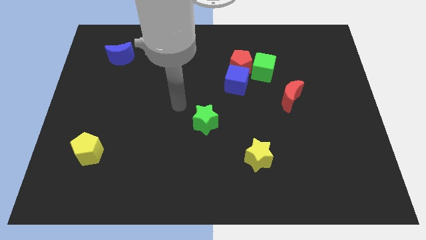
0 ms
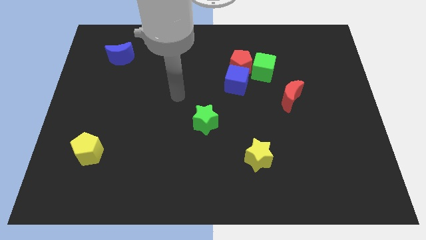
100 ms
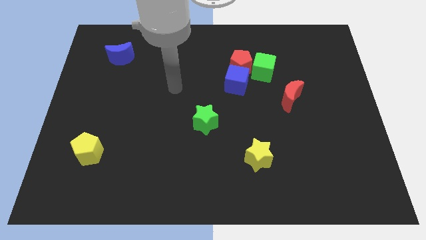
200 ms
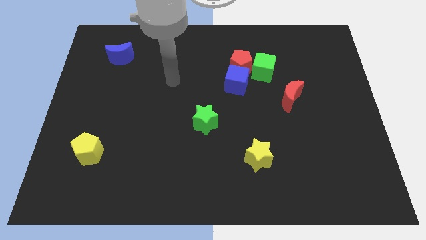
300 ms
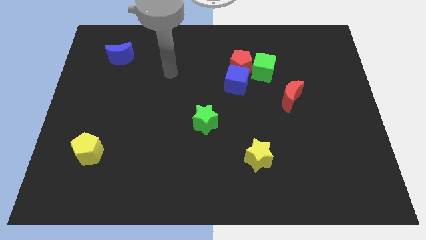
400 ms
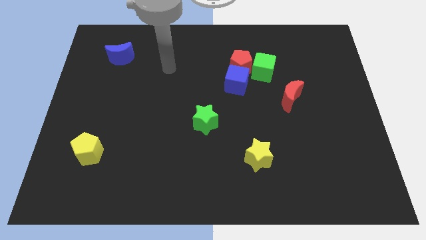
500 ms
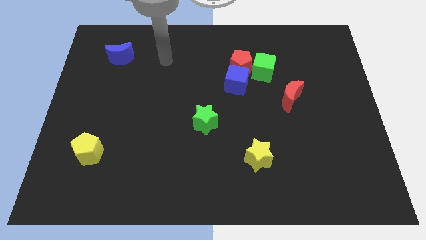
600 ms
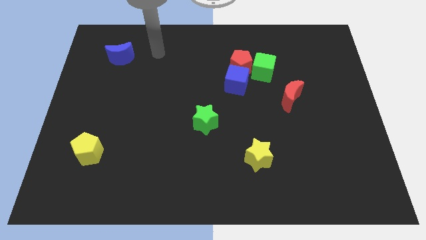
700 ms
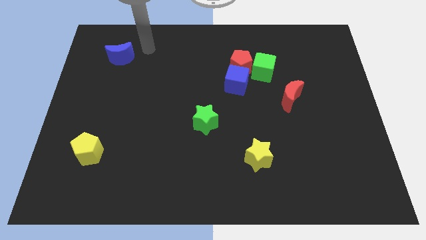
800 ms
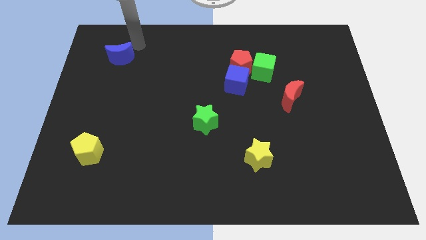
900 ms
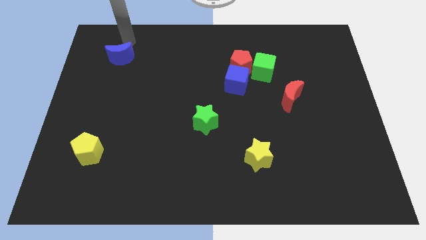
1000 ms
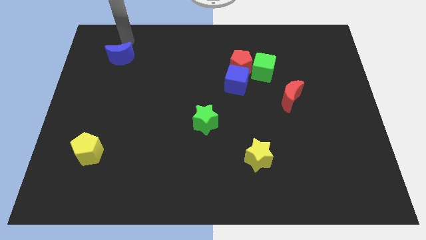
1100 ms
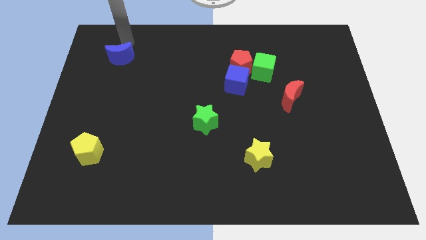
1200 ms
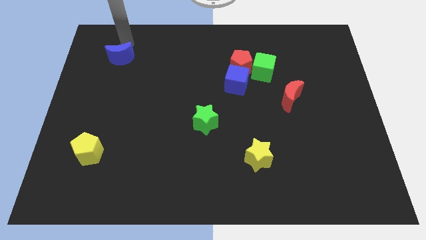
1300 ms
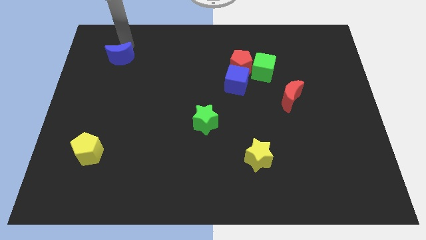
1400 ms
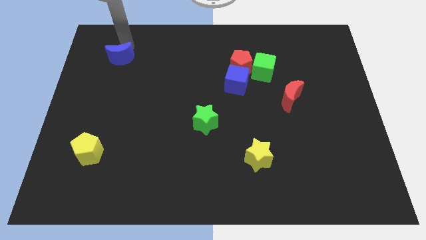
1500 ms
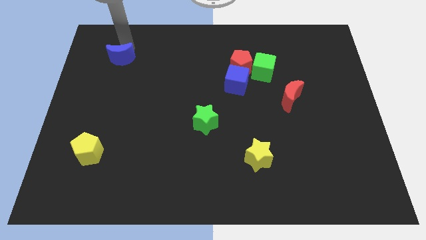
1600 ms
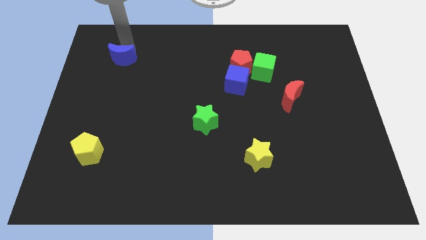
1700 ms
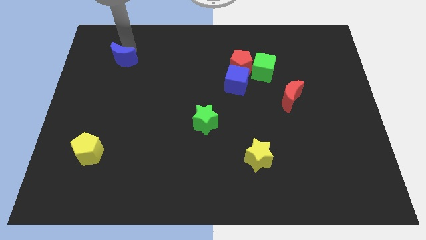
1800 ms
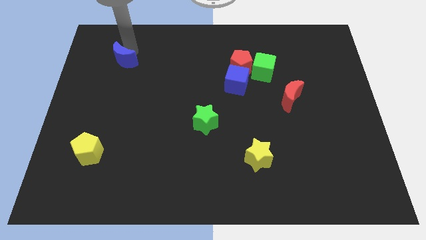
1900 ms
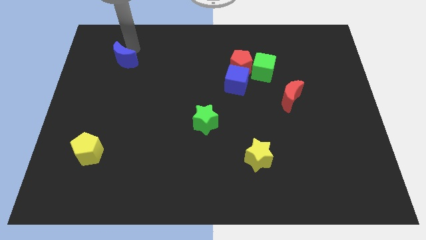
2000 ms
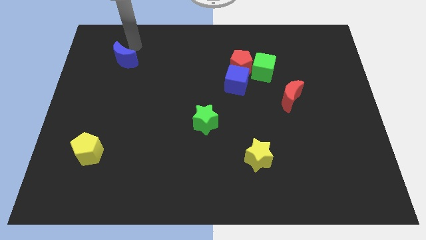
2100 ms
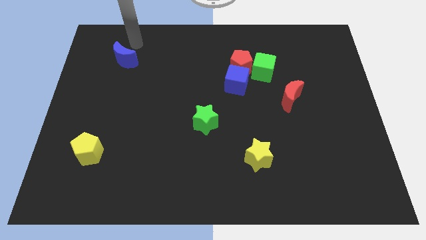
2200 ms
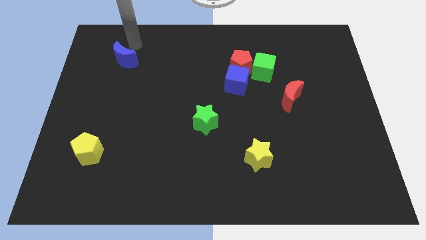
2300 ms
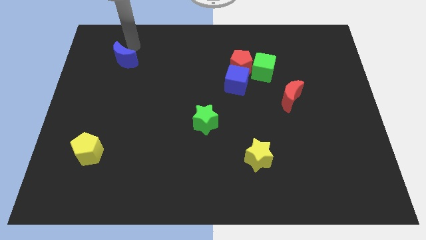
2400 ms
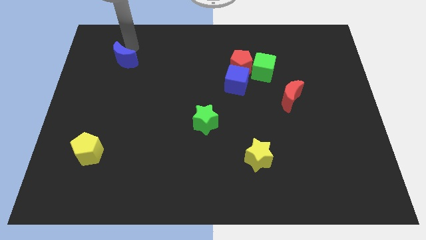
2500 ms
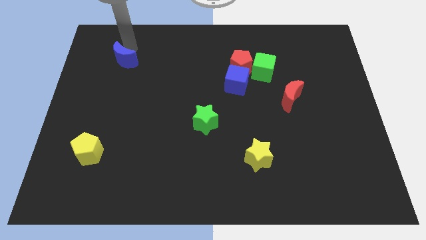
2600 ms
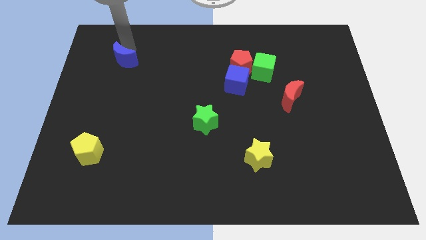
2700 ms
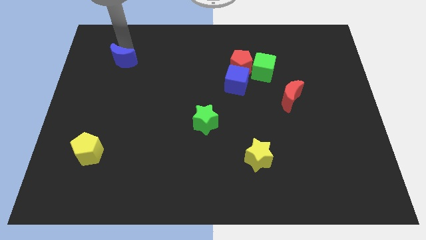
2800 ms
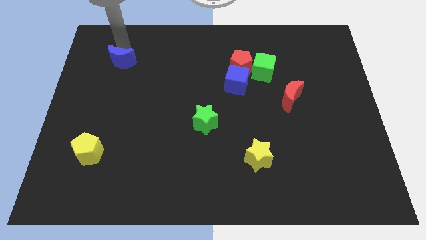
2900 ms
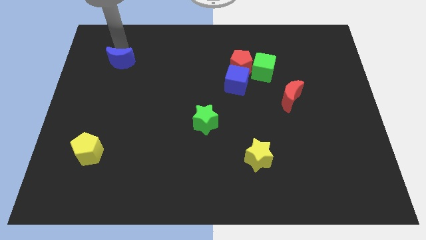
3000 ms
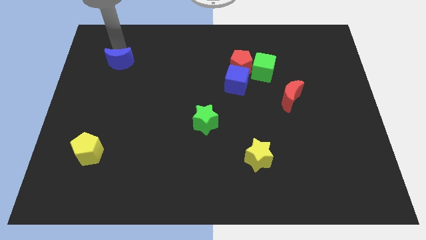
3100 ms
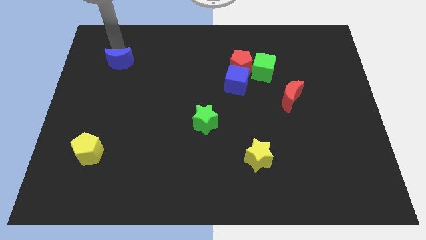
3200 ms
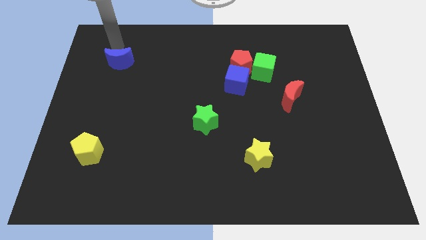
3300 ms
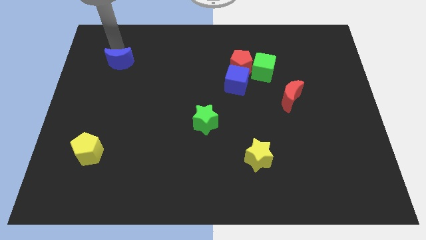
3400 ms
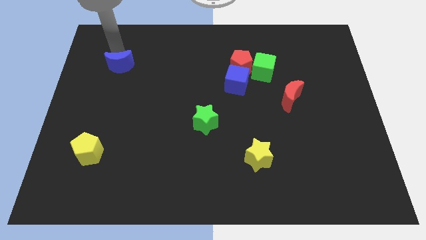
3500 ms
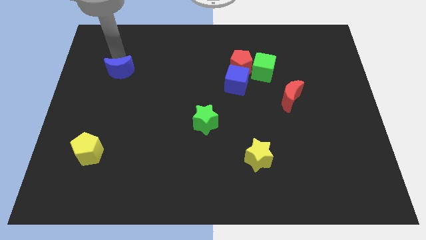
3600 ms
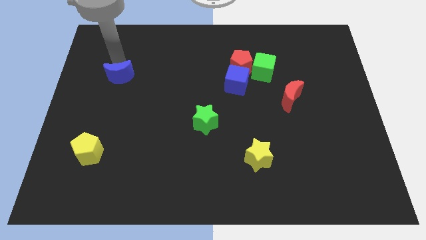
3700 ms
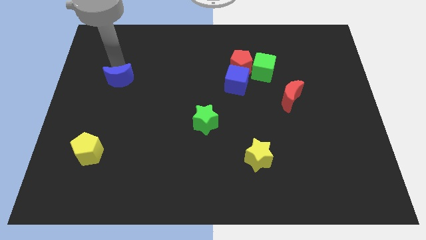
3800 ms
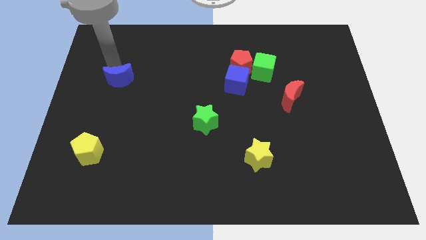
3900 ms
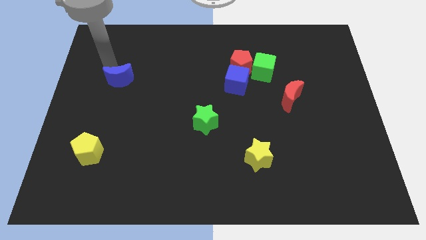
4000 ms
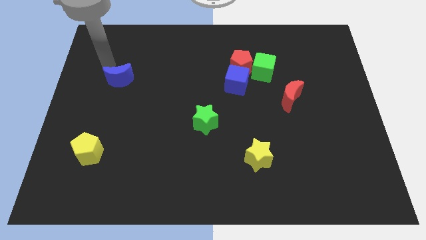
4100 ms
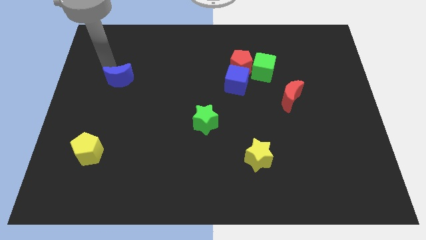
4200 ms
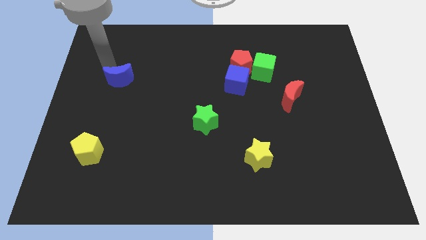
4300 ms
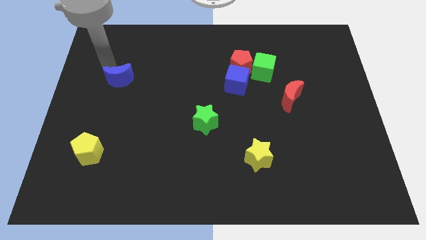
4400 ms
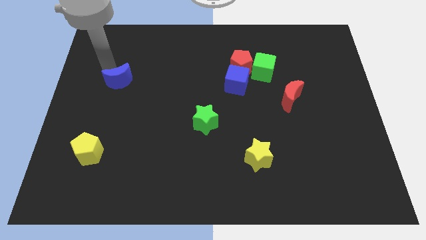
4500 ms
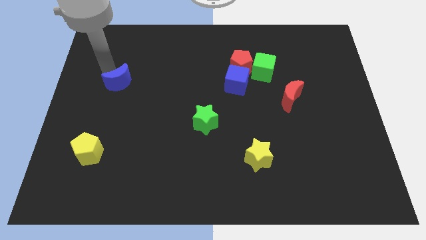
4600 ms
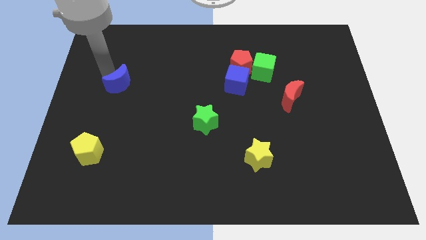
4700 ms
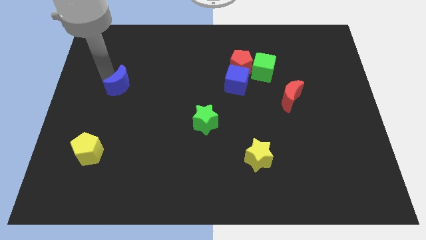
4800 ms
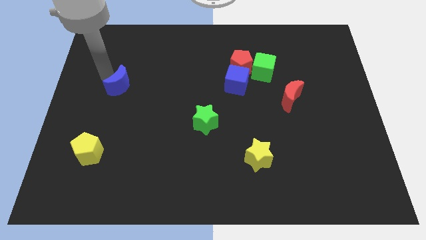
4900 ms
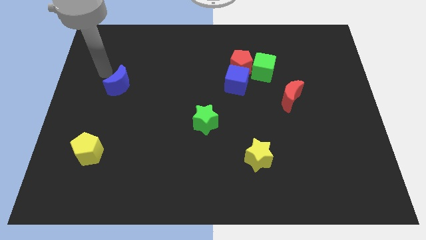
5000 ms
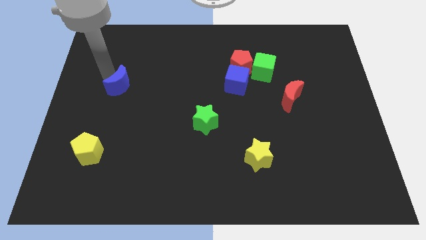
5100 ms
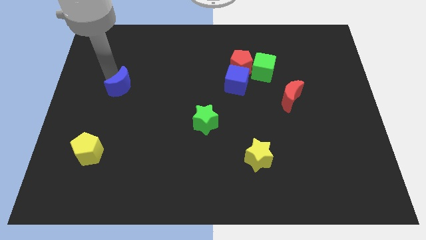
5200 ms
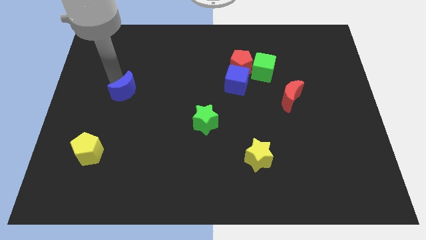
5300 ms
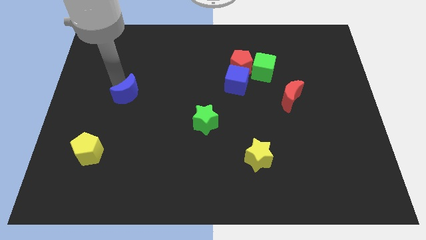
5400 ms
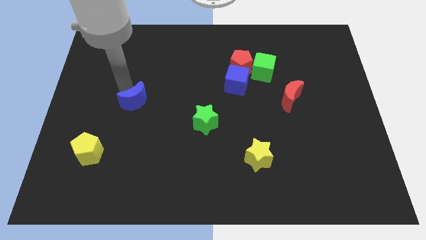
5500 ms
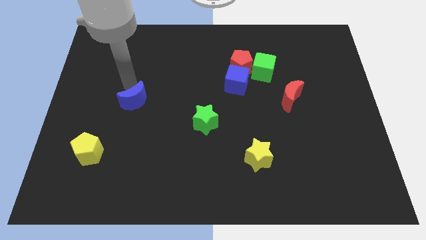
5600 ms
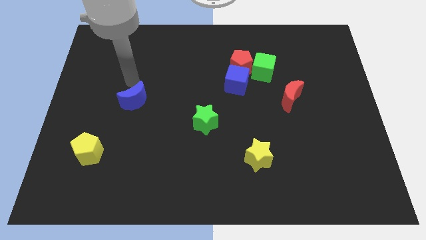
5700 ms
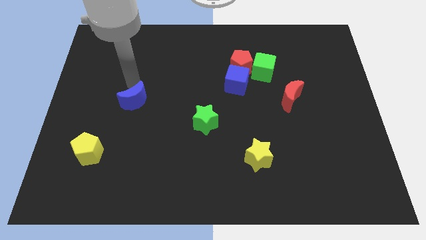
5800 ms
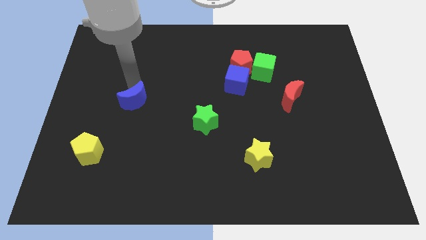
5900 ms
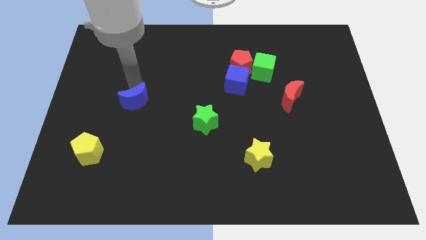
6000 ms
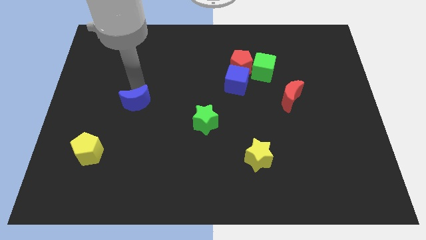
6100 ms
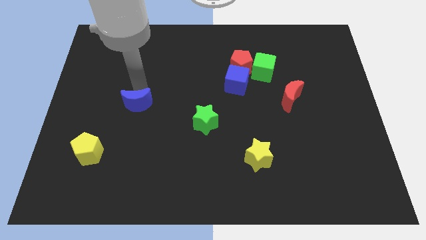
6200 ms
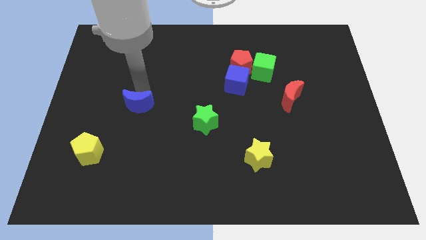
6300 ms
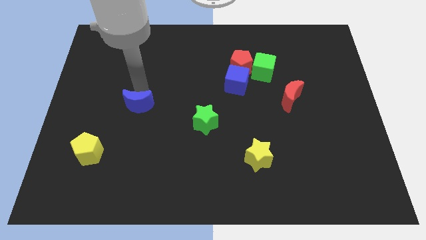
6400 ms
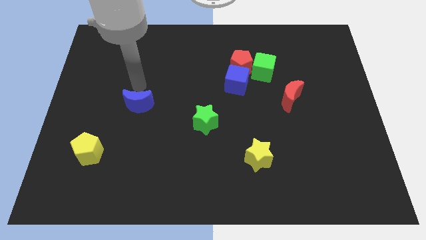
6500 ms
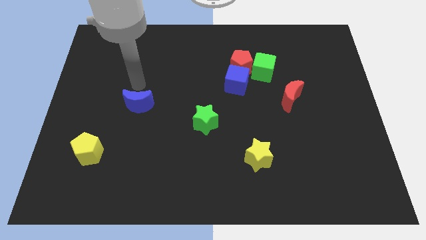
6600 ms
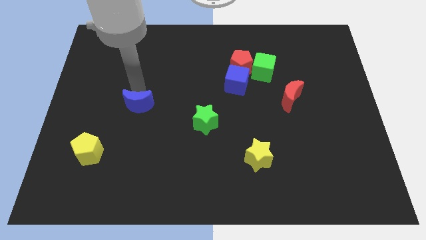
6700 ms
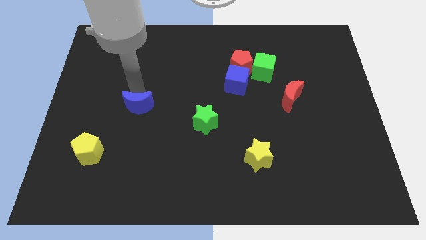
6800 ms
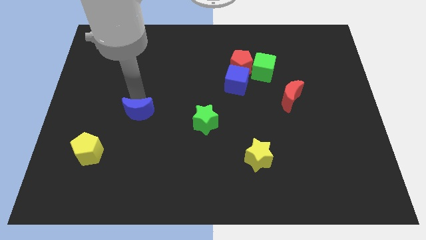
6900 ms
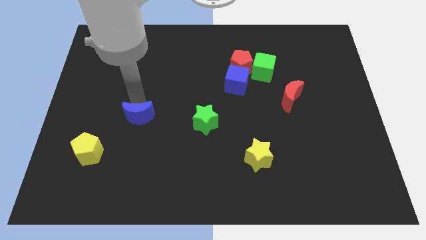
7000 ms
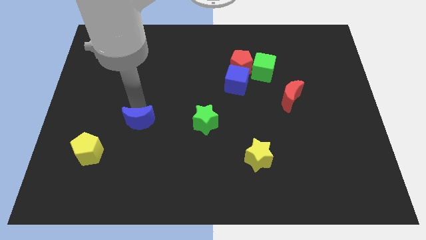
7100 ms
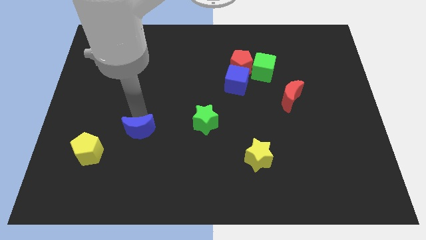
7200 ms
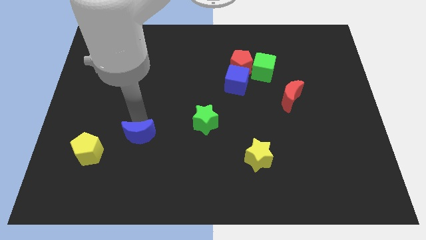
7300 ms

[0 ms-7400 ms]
push the blue moon just right of the yellow pentagon
